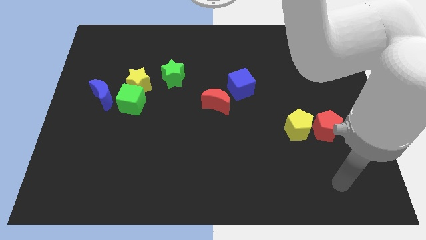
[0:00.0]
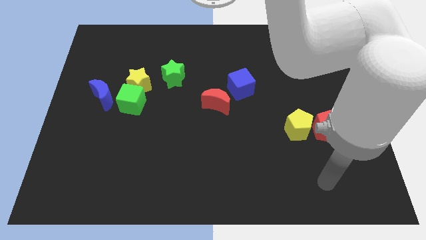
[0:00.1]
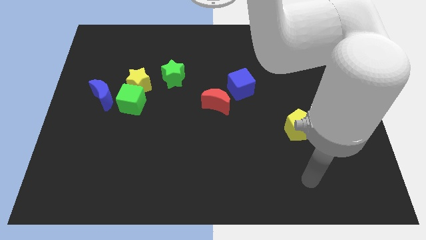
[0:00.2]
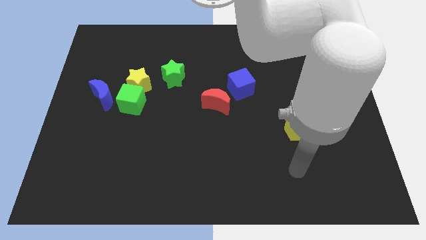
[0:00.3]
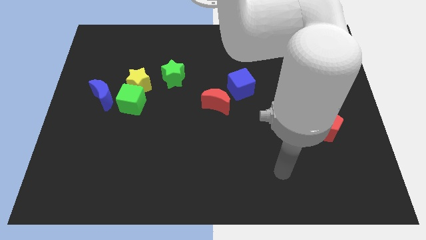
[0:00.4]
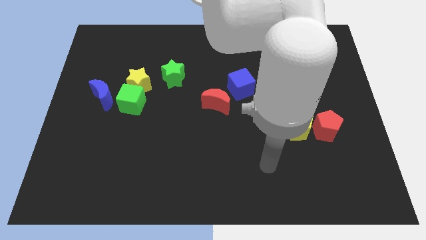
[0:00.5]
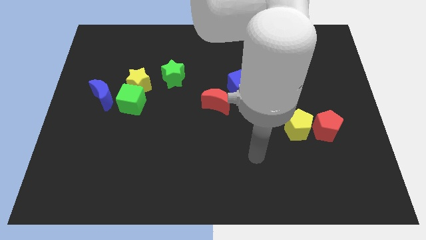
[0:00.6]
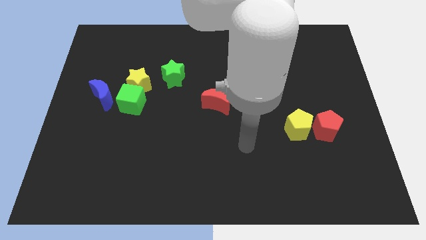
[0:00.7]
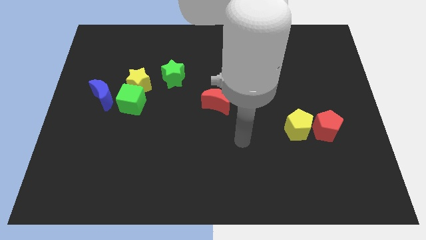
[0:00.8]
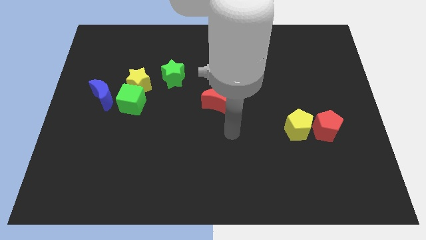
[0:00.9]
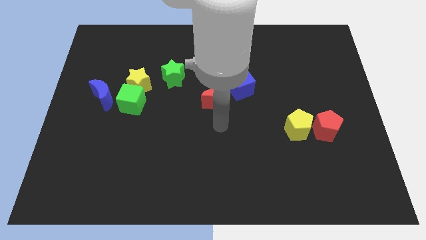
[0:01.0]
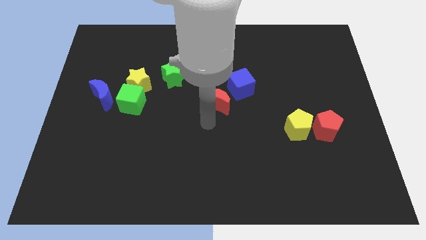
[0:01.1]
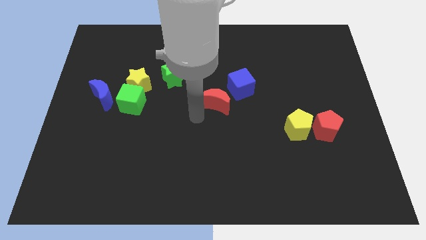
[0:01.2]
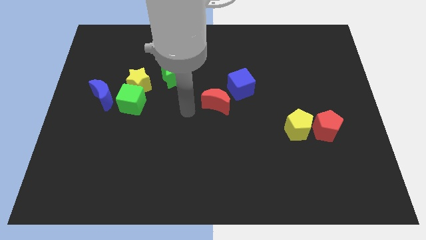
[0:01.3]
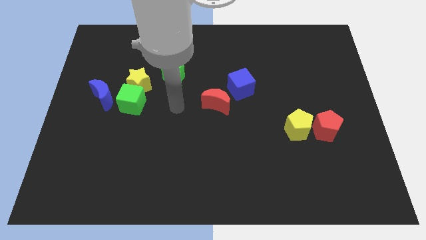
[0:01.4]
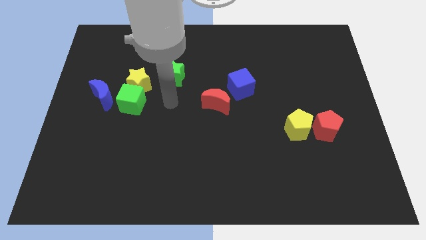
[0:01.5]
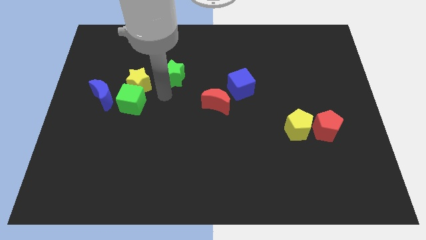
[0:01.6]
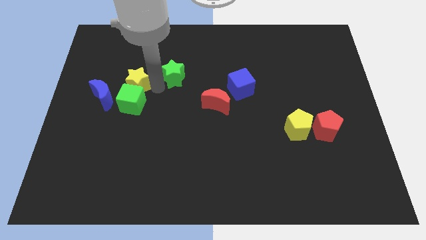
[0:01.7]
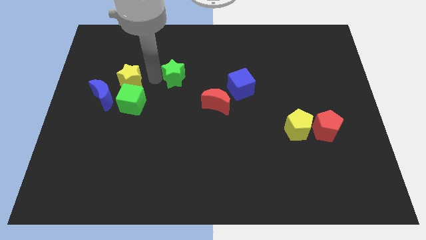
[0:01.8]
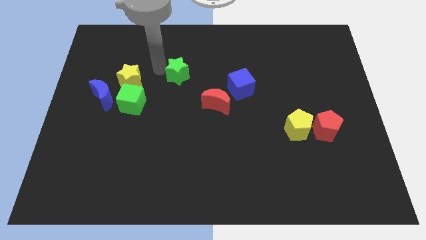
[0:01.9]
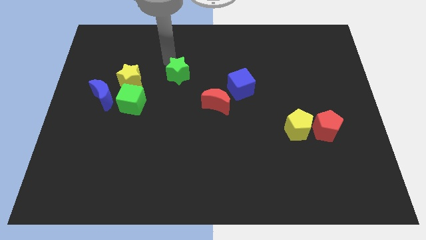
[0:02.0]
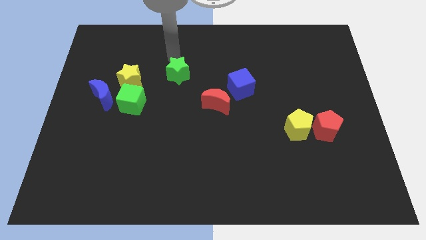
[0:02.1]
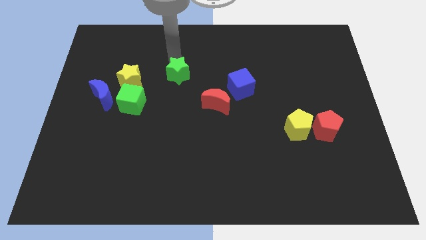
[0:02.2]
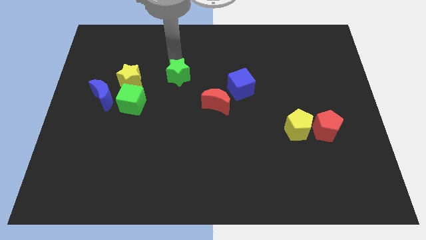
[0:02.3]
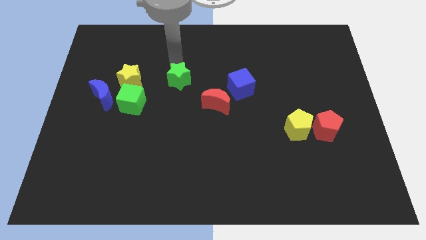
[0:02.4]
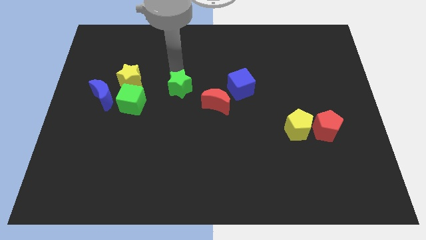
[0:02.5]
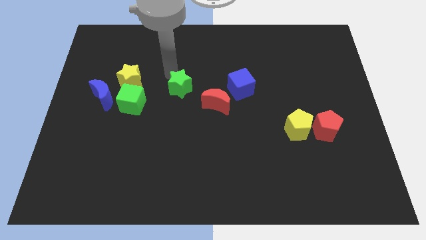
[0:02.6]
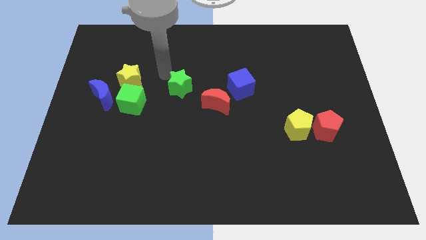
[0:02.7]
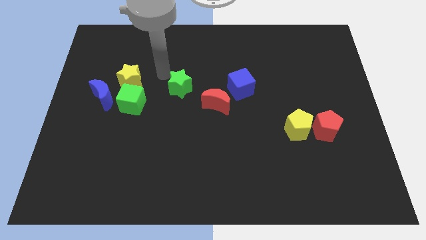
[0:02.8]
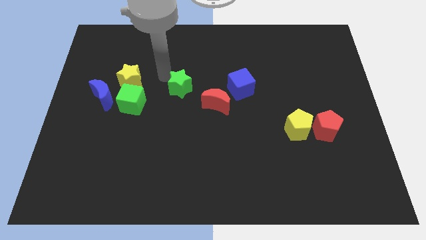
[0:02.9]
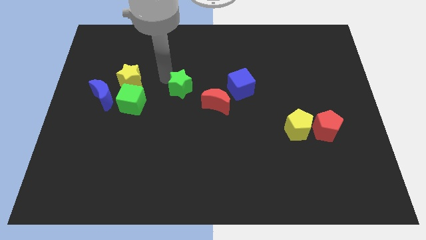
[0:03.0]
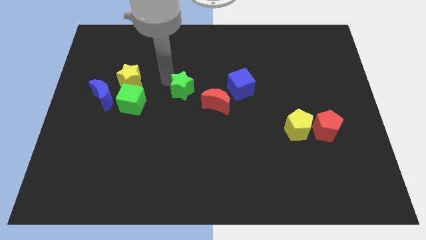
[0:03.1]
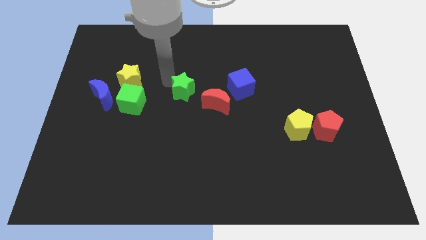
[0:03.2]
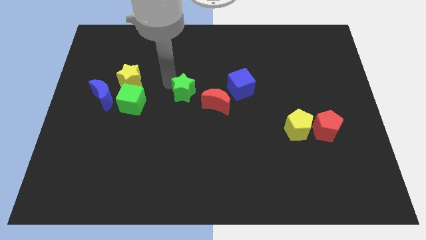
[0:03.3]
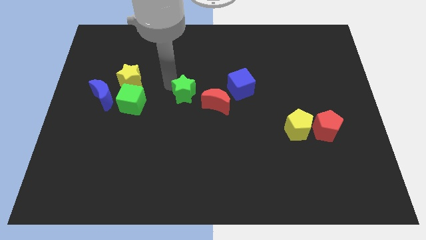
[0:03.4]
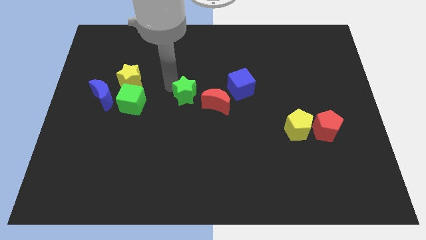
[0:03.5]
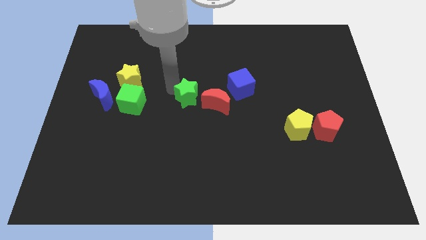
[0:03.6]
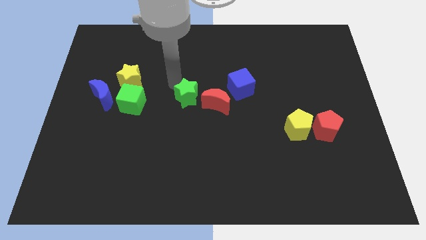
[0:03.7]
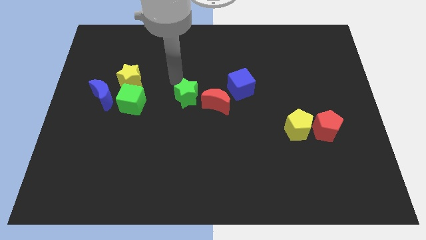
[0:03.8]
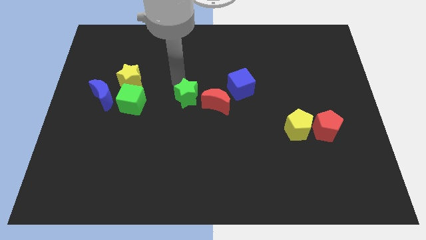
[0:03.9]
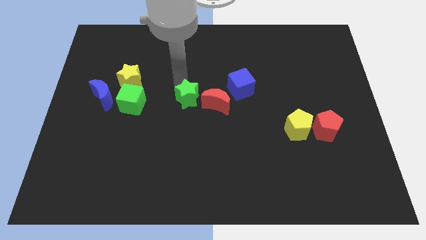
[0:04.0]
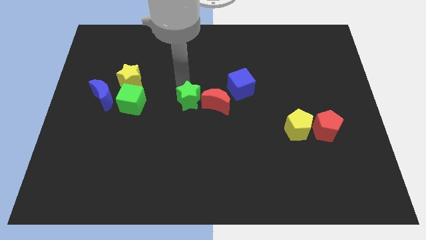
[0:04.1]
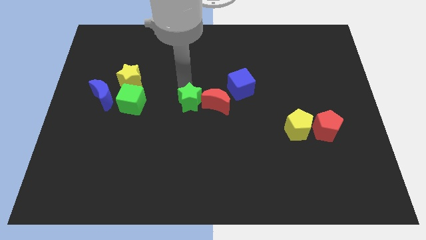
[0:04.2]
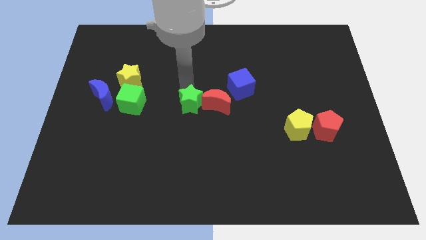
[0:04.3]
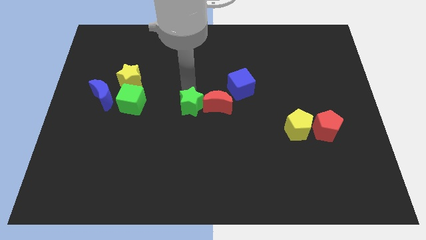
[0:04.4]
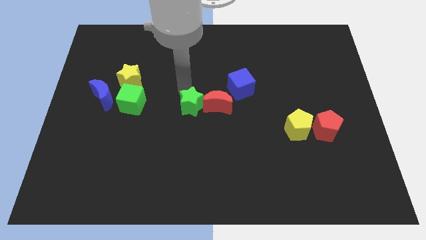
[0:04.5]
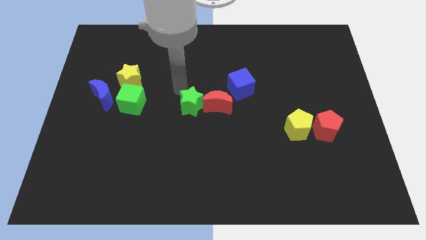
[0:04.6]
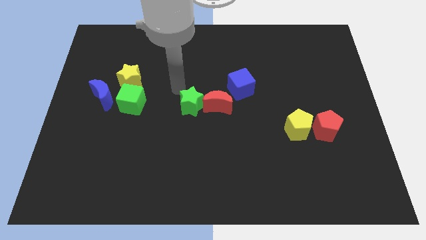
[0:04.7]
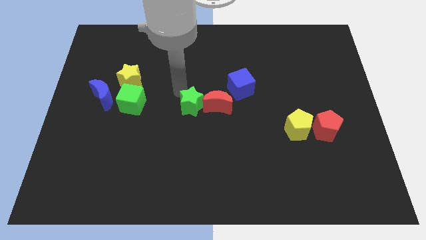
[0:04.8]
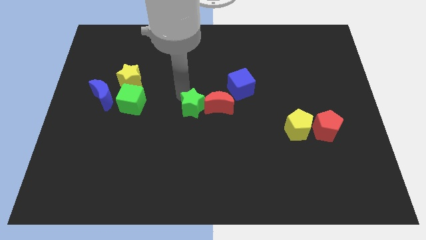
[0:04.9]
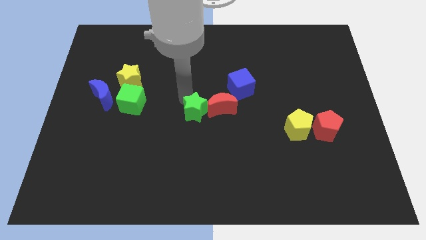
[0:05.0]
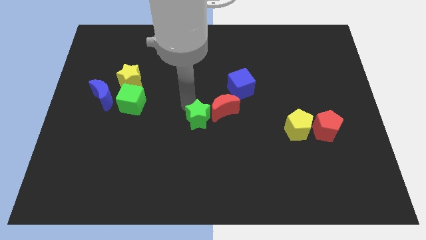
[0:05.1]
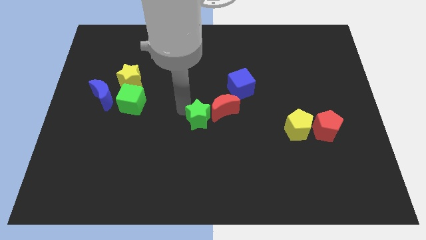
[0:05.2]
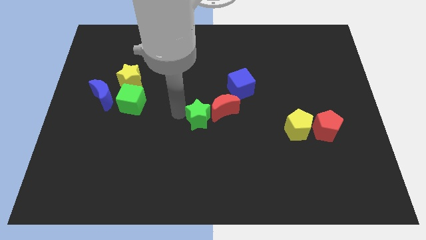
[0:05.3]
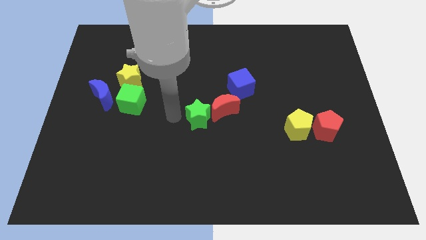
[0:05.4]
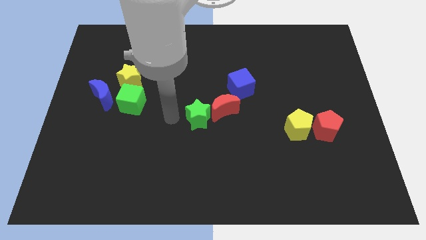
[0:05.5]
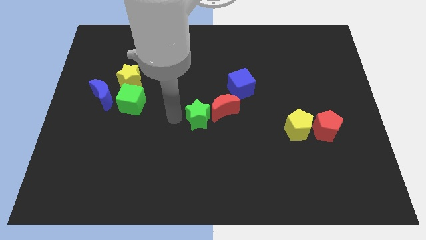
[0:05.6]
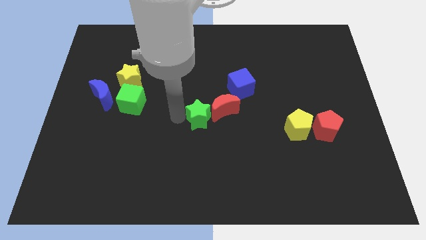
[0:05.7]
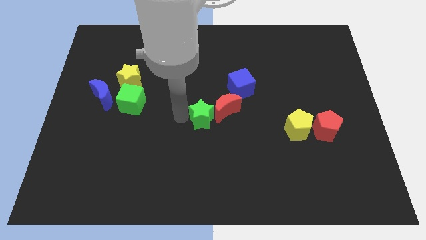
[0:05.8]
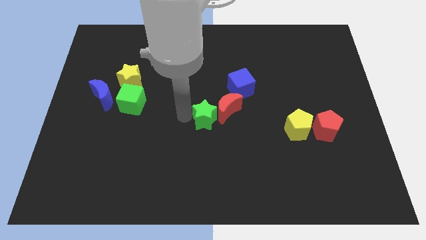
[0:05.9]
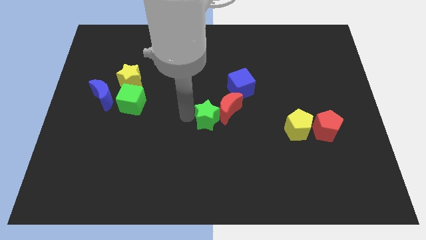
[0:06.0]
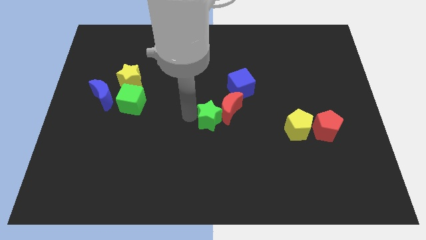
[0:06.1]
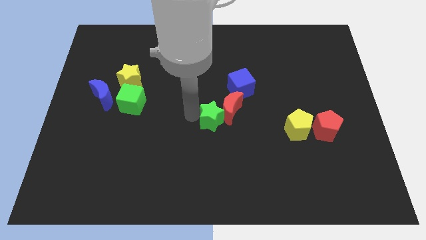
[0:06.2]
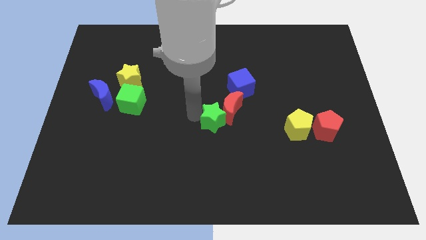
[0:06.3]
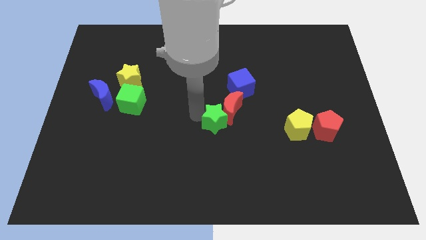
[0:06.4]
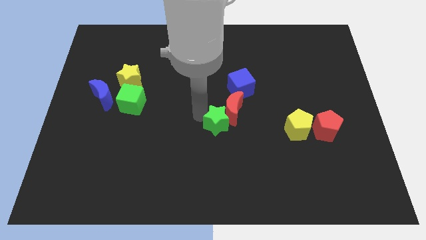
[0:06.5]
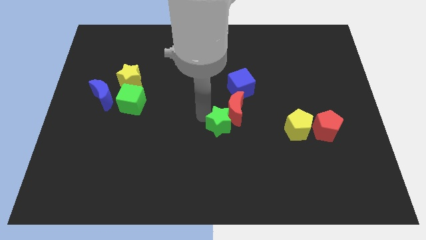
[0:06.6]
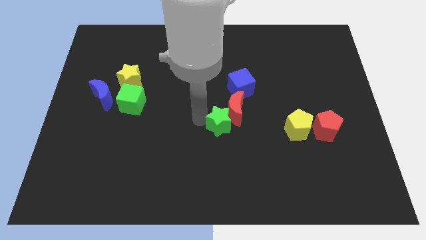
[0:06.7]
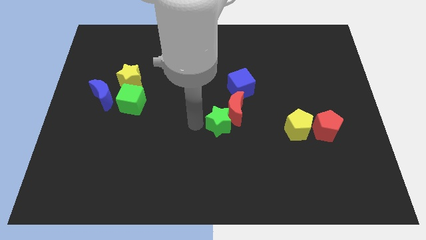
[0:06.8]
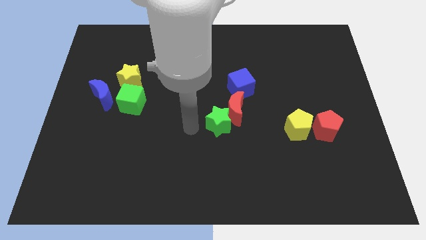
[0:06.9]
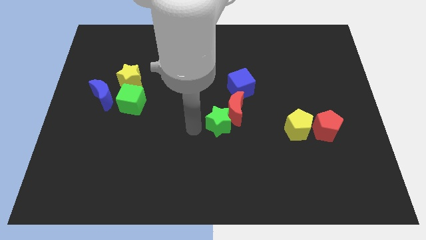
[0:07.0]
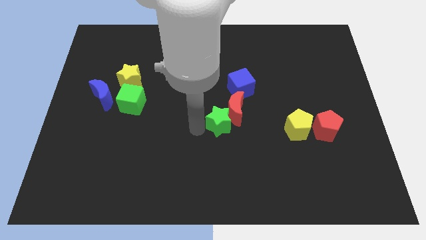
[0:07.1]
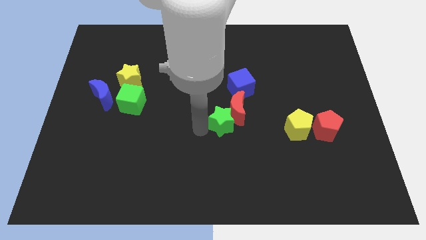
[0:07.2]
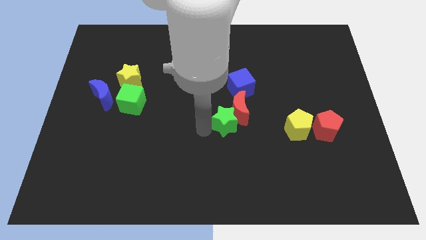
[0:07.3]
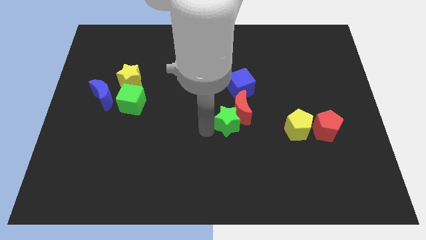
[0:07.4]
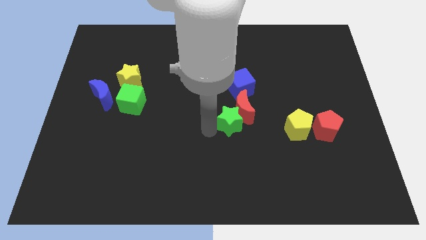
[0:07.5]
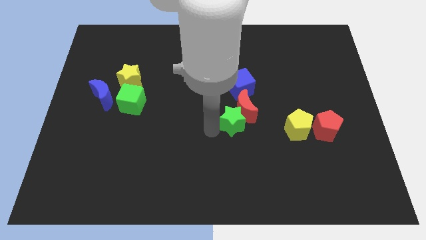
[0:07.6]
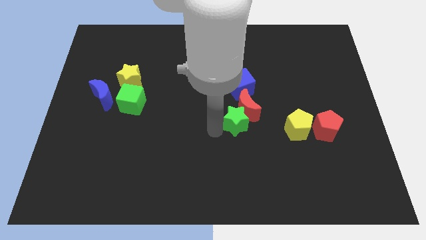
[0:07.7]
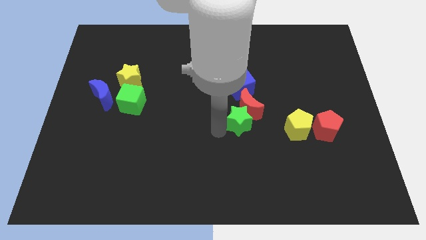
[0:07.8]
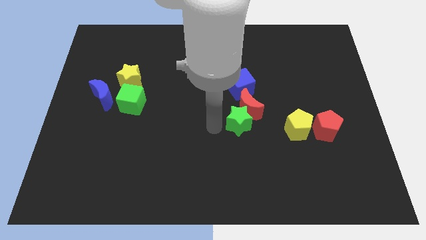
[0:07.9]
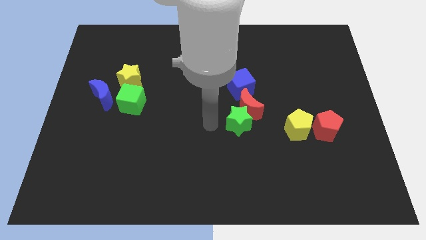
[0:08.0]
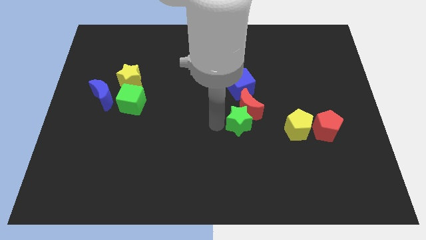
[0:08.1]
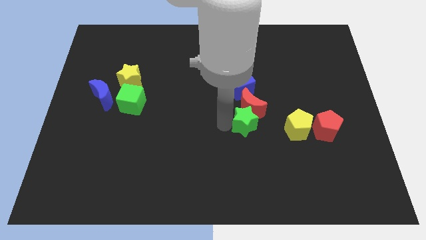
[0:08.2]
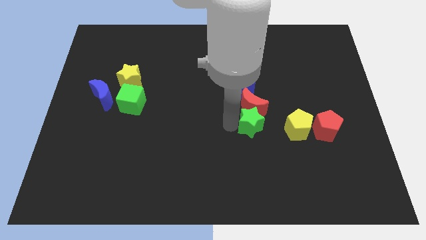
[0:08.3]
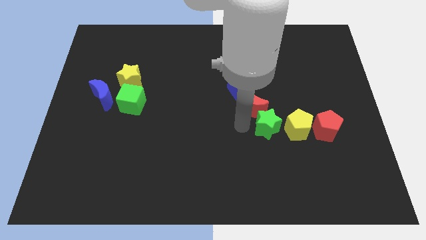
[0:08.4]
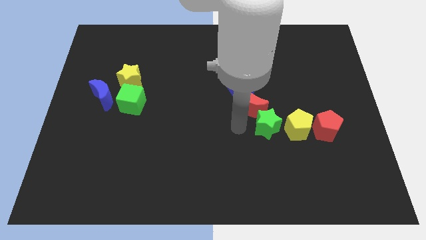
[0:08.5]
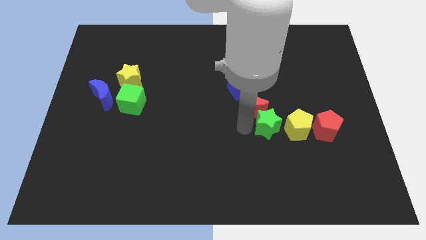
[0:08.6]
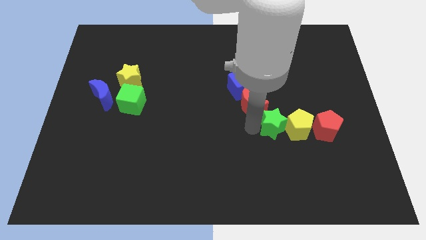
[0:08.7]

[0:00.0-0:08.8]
slide the green star next to the yellow pentagon
